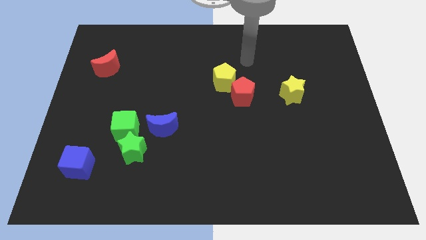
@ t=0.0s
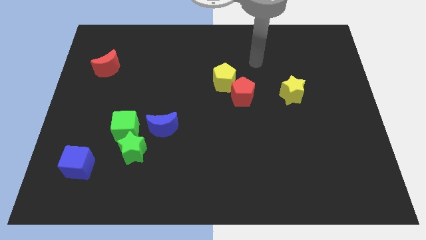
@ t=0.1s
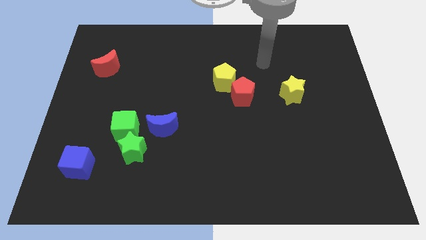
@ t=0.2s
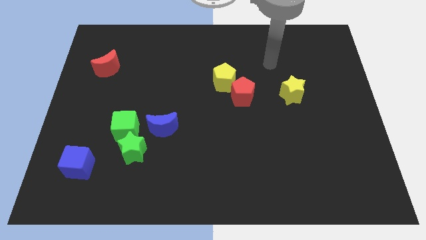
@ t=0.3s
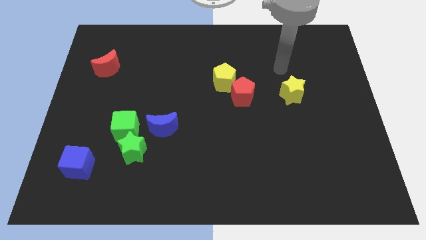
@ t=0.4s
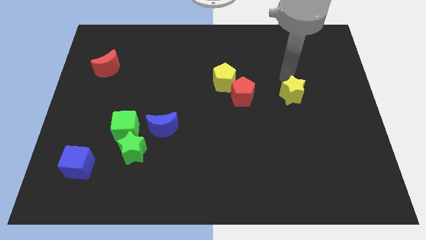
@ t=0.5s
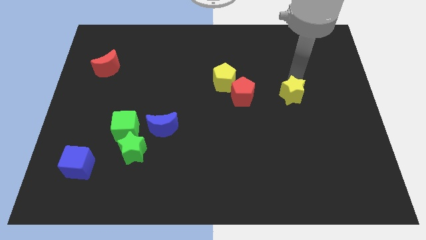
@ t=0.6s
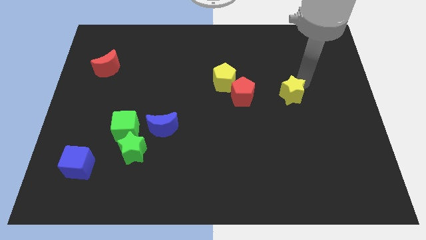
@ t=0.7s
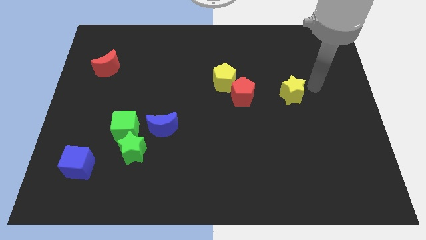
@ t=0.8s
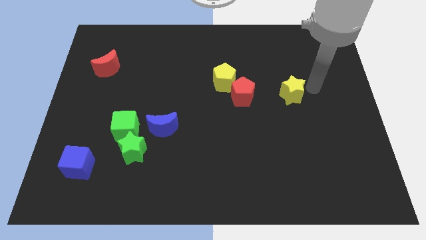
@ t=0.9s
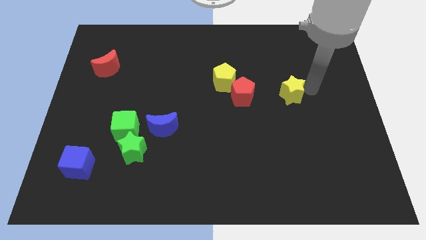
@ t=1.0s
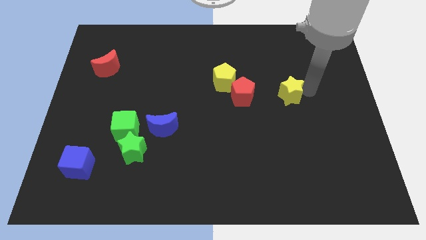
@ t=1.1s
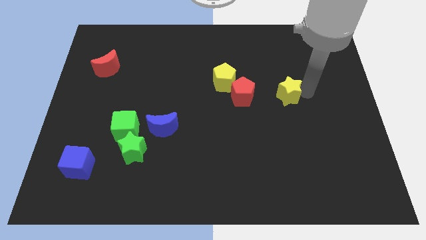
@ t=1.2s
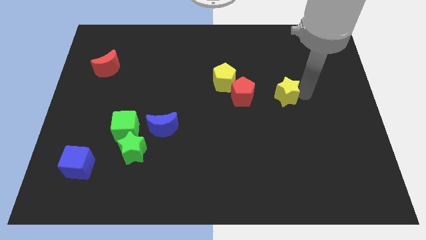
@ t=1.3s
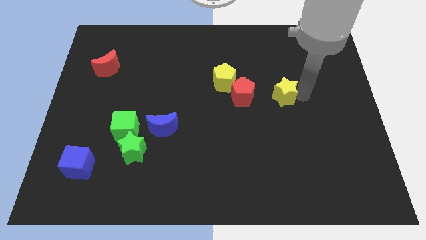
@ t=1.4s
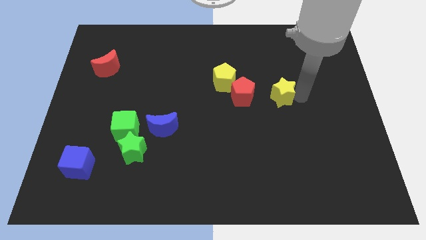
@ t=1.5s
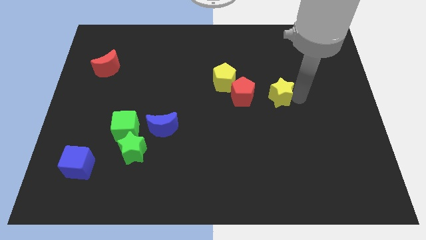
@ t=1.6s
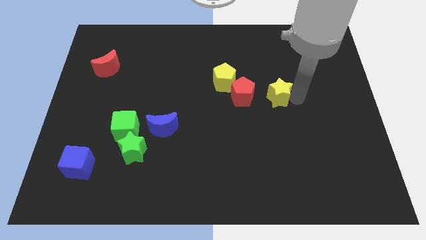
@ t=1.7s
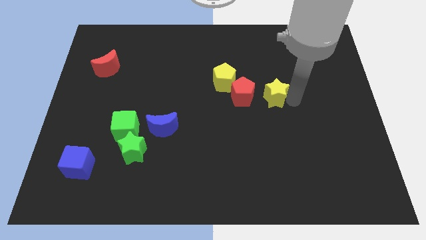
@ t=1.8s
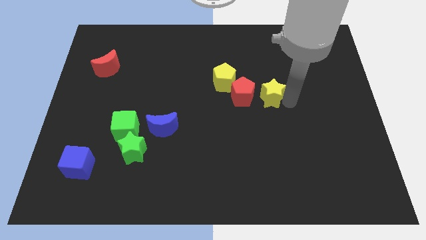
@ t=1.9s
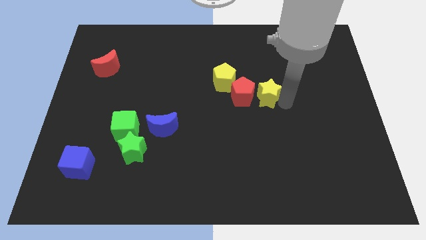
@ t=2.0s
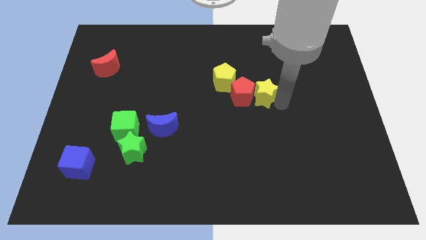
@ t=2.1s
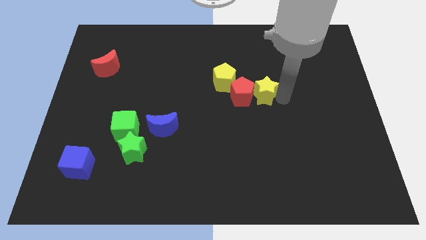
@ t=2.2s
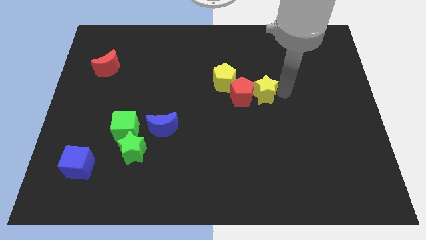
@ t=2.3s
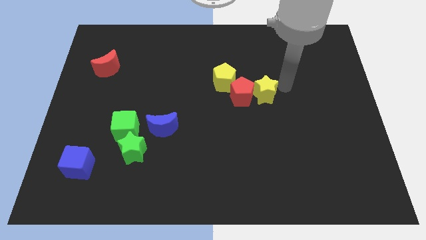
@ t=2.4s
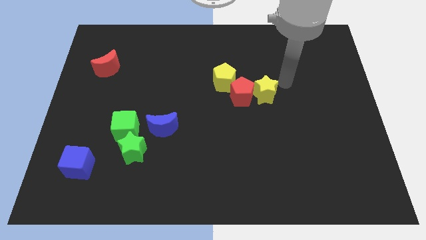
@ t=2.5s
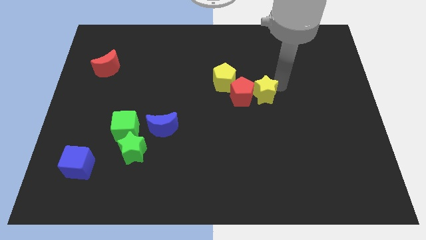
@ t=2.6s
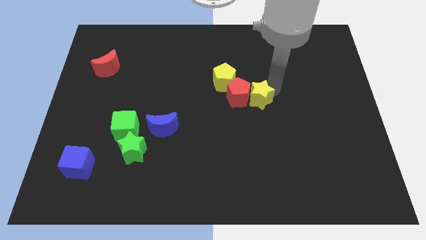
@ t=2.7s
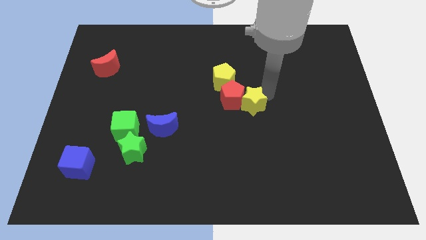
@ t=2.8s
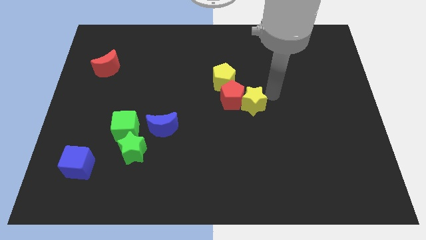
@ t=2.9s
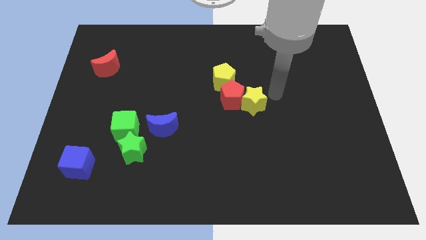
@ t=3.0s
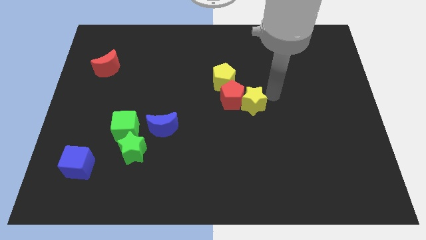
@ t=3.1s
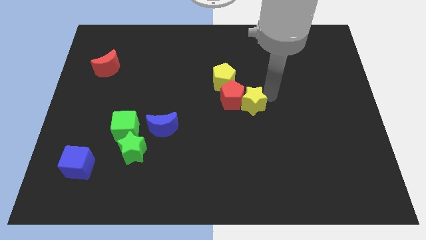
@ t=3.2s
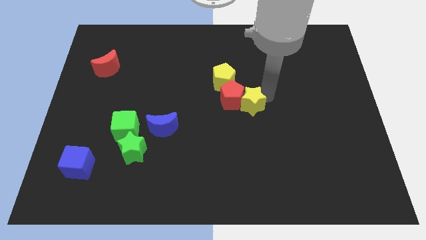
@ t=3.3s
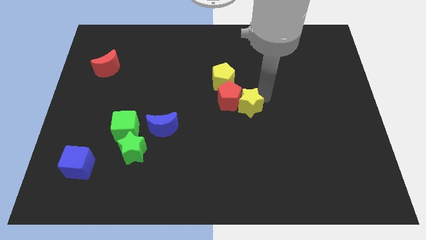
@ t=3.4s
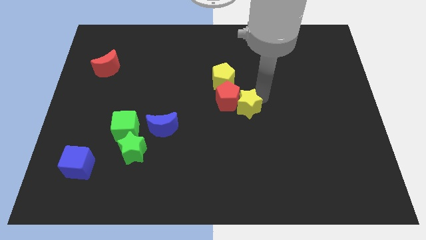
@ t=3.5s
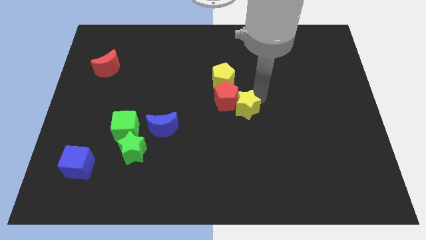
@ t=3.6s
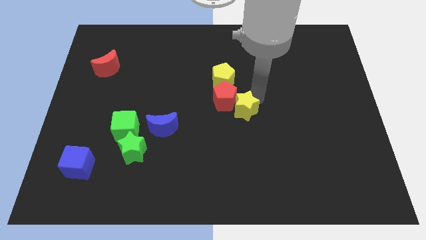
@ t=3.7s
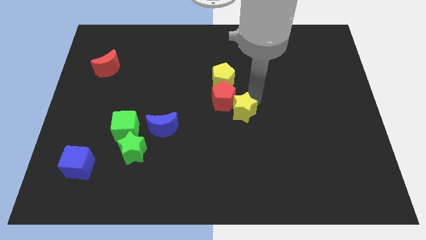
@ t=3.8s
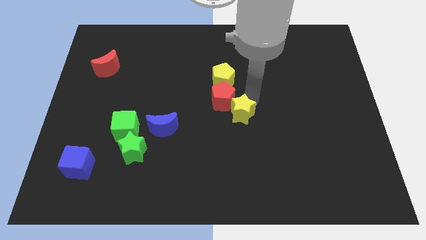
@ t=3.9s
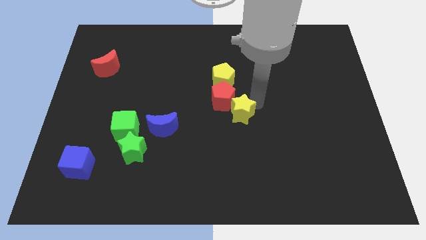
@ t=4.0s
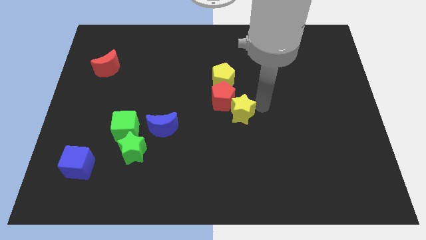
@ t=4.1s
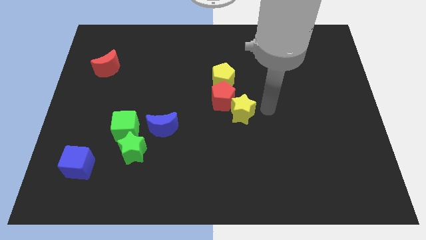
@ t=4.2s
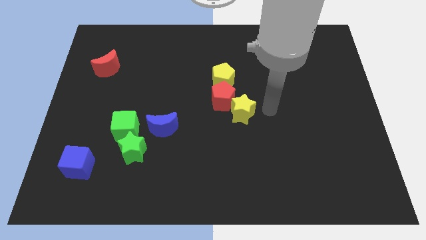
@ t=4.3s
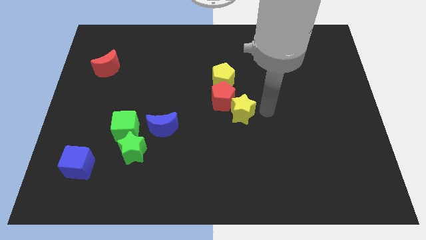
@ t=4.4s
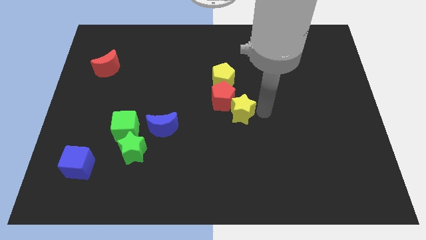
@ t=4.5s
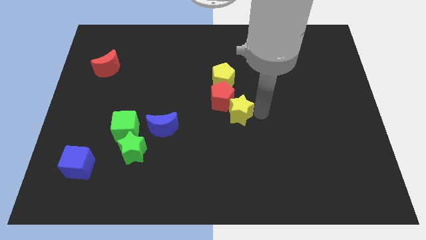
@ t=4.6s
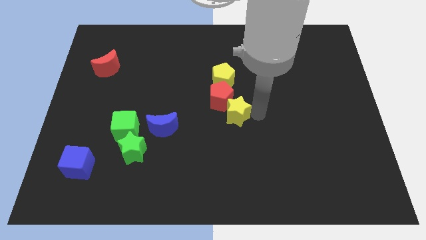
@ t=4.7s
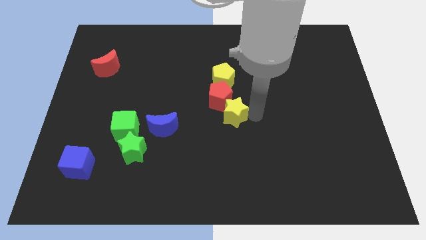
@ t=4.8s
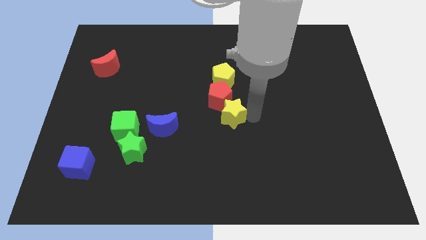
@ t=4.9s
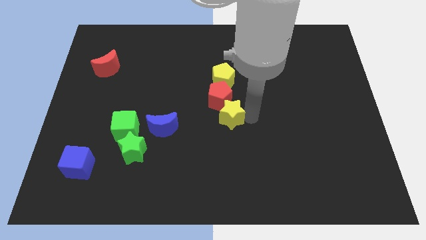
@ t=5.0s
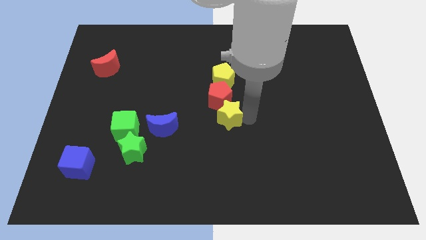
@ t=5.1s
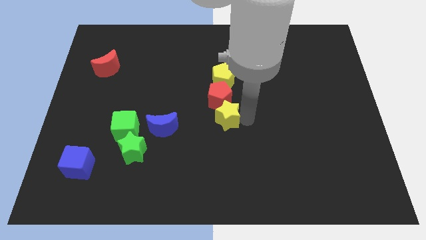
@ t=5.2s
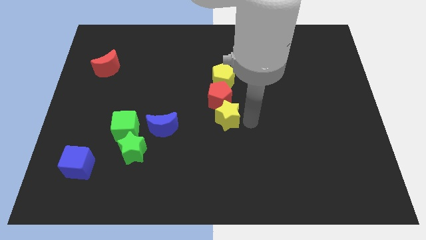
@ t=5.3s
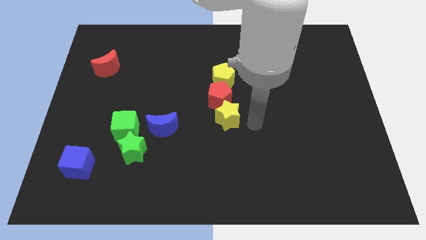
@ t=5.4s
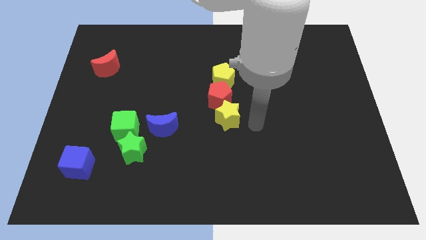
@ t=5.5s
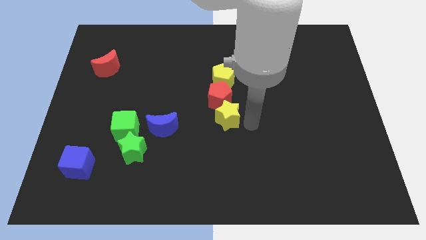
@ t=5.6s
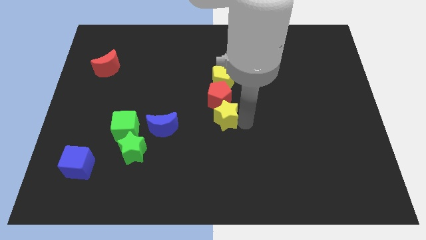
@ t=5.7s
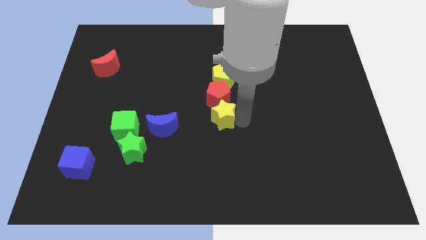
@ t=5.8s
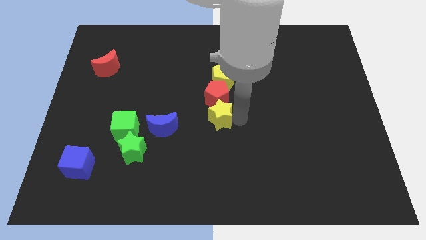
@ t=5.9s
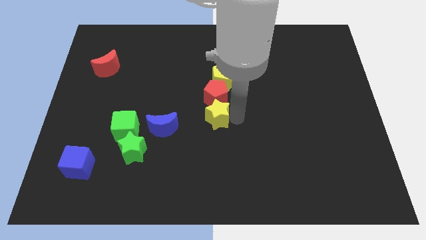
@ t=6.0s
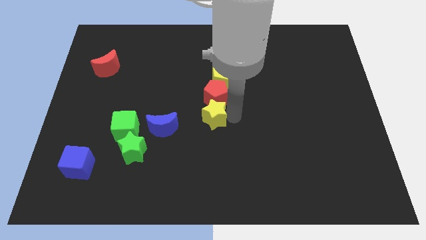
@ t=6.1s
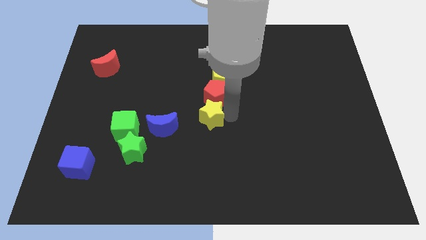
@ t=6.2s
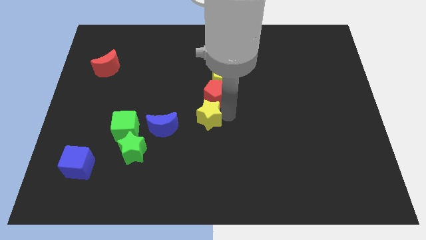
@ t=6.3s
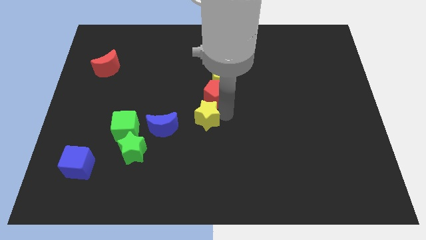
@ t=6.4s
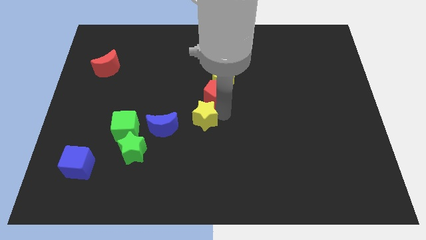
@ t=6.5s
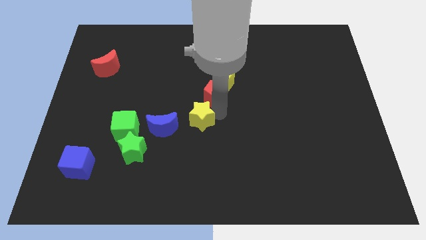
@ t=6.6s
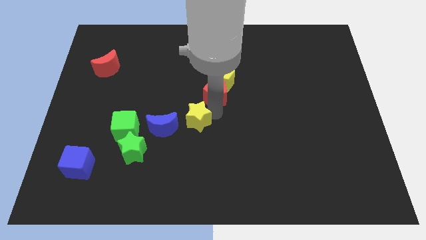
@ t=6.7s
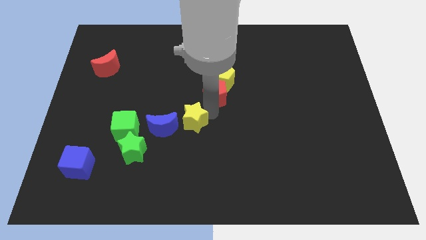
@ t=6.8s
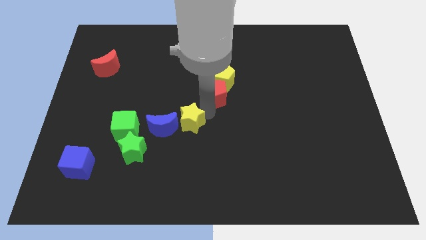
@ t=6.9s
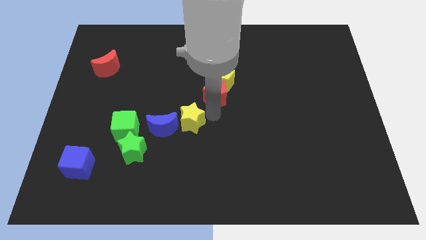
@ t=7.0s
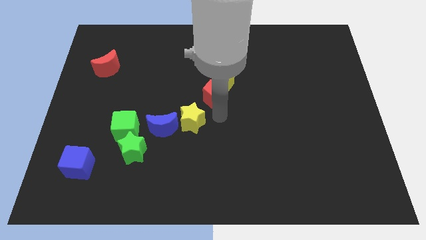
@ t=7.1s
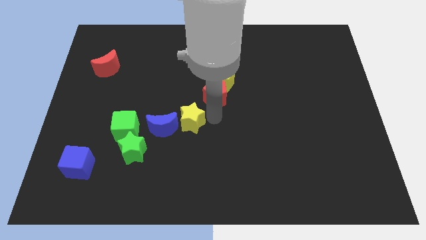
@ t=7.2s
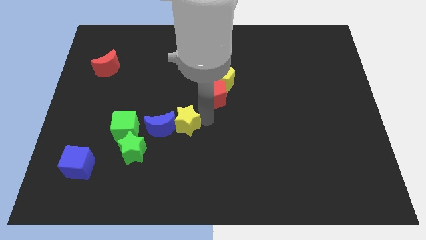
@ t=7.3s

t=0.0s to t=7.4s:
push the yellow star towards the blue moon

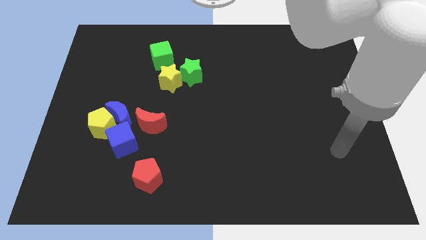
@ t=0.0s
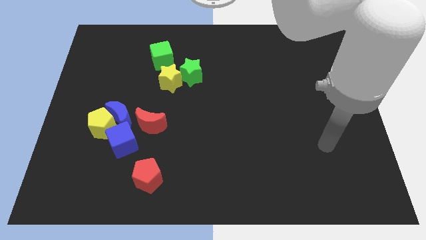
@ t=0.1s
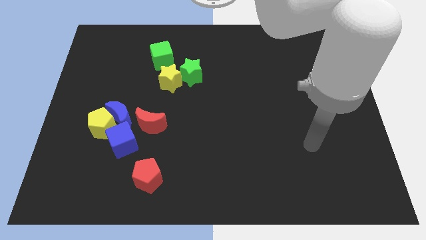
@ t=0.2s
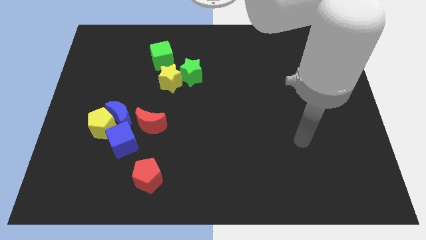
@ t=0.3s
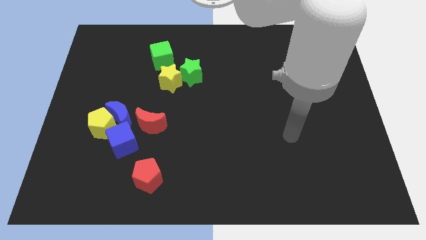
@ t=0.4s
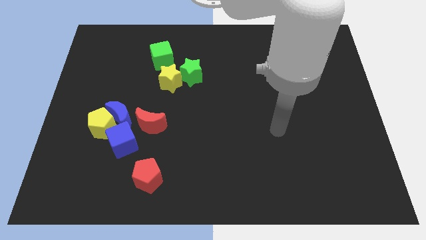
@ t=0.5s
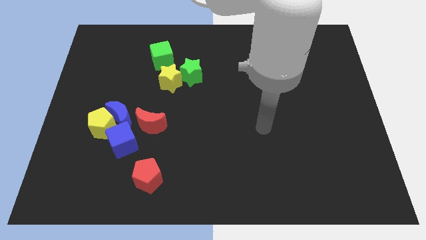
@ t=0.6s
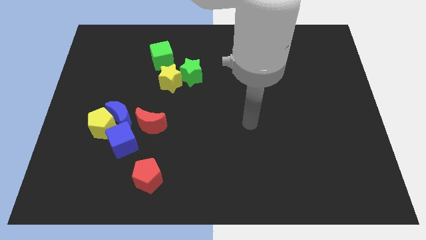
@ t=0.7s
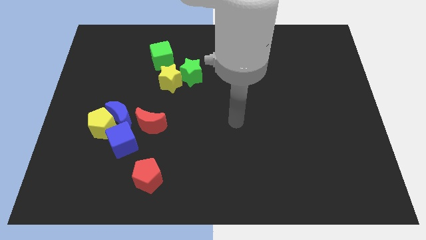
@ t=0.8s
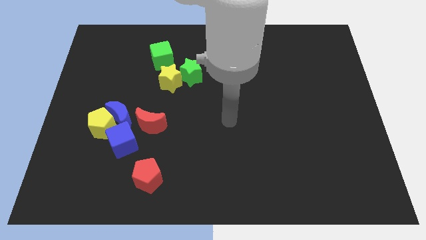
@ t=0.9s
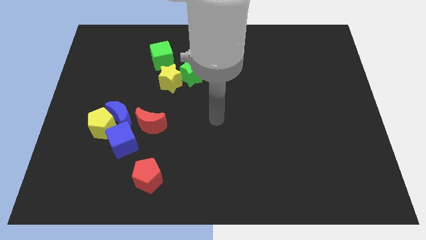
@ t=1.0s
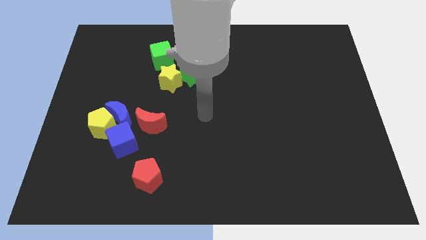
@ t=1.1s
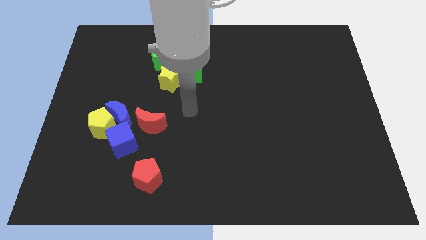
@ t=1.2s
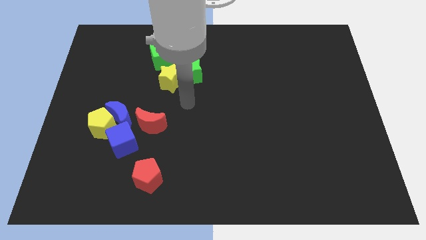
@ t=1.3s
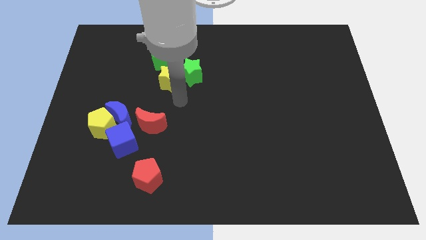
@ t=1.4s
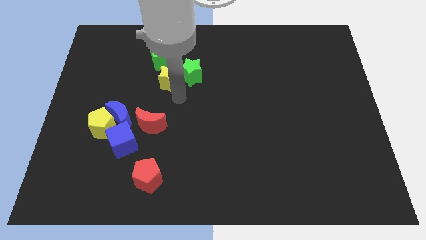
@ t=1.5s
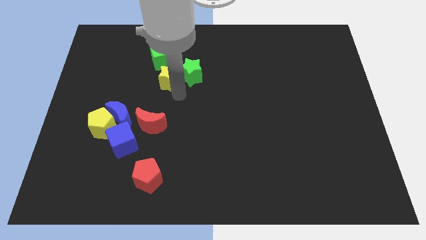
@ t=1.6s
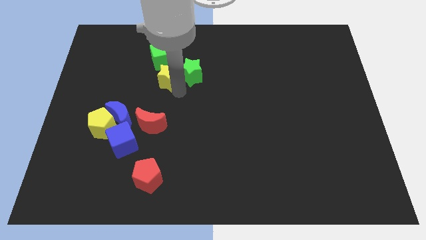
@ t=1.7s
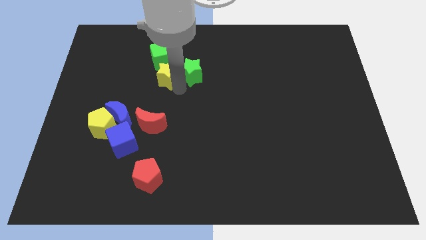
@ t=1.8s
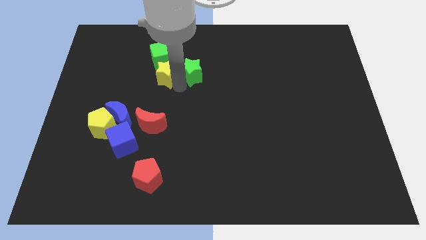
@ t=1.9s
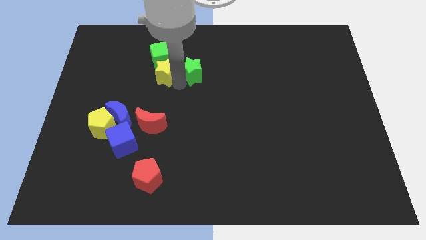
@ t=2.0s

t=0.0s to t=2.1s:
move the yellow star close to the green cube
